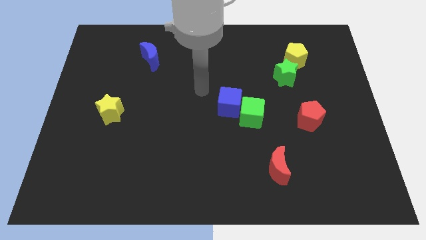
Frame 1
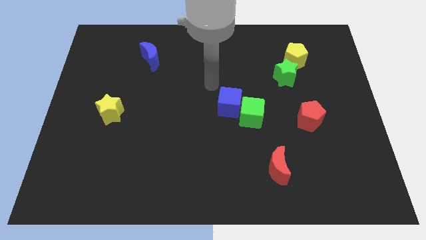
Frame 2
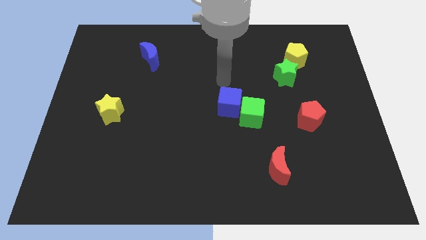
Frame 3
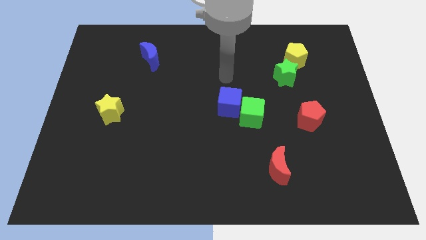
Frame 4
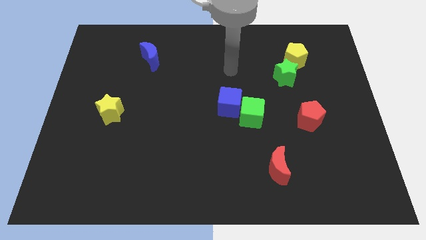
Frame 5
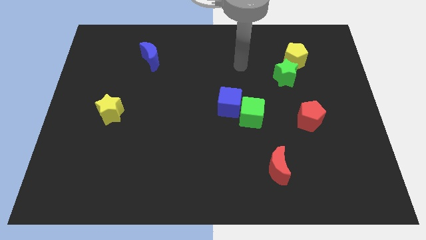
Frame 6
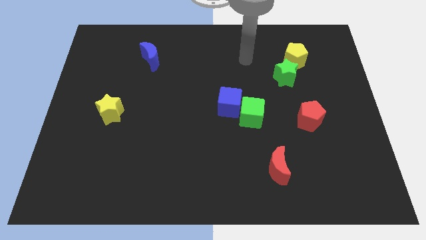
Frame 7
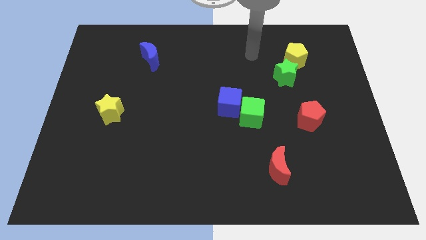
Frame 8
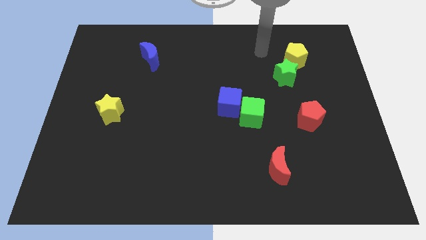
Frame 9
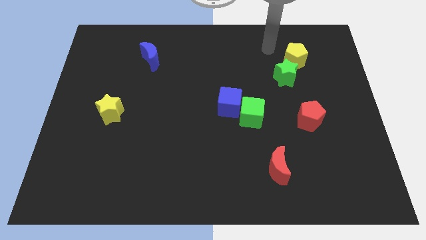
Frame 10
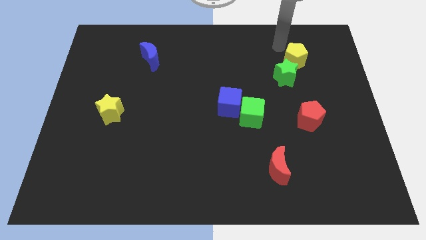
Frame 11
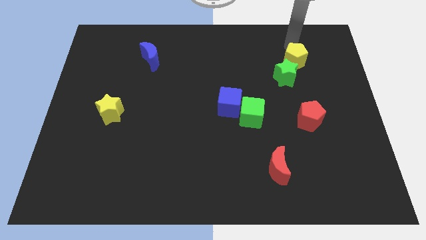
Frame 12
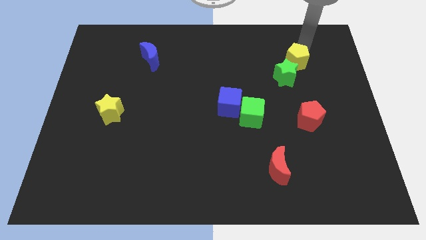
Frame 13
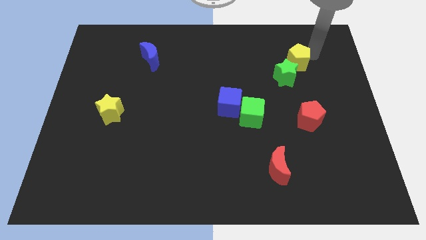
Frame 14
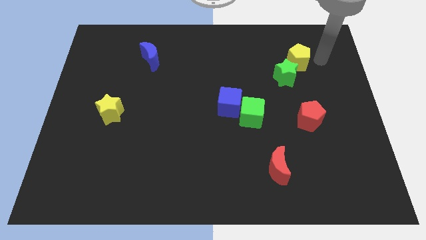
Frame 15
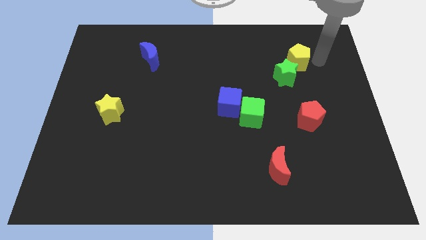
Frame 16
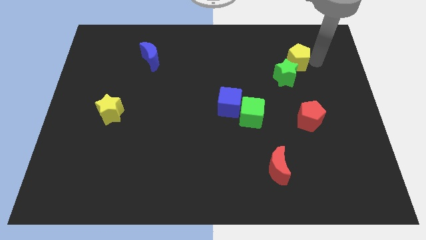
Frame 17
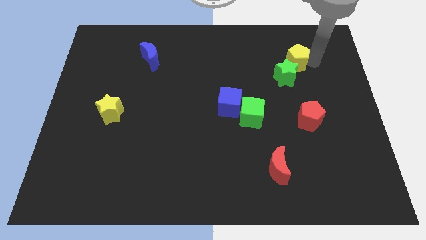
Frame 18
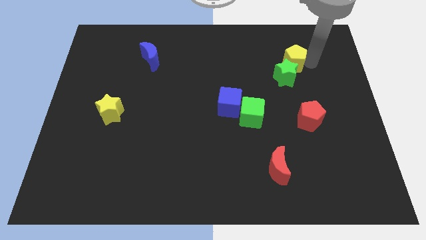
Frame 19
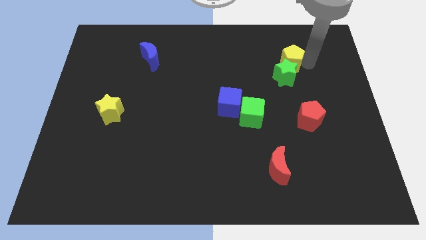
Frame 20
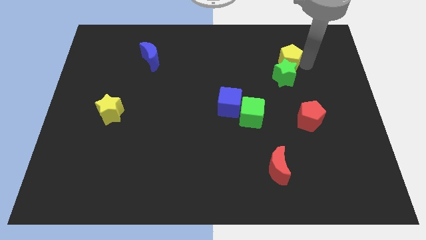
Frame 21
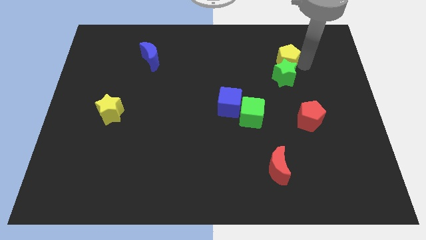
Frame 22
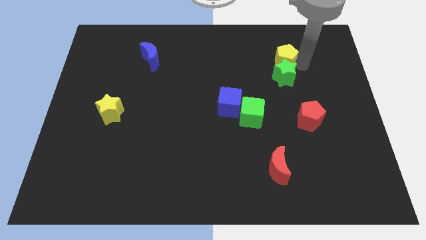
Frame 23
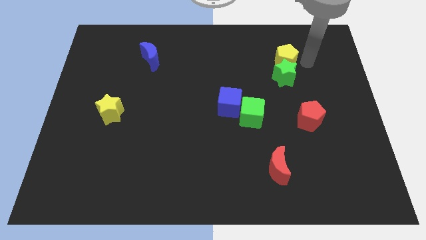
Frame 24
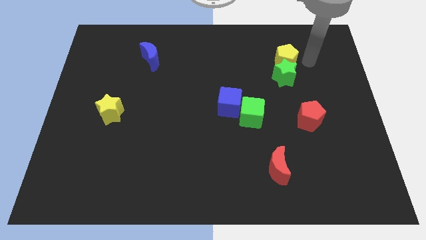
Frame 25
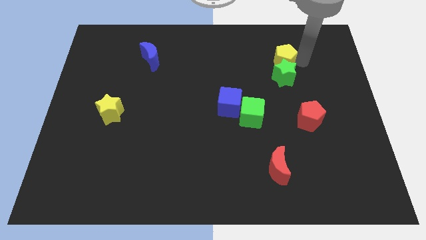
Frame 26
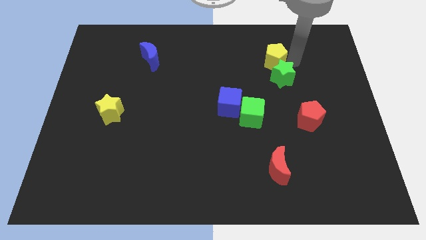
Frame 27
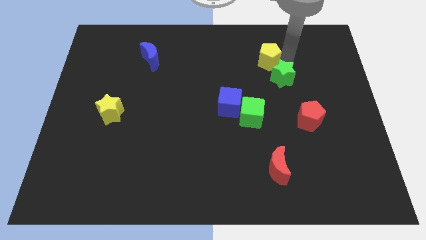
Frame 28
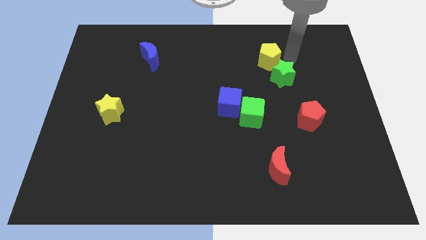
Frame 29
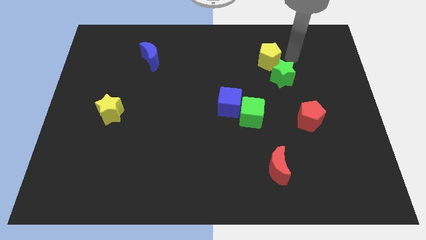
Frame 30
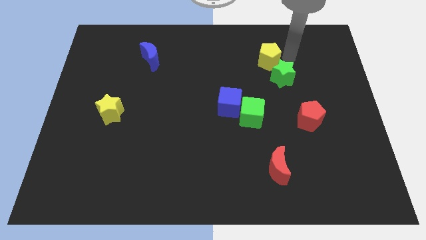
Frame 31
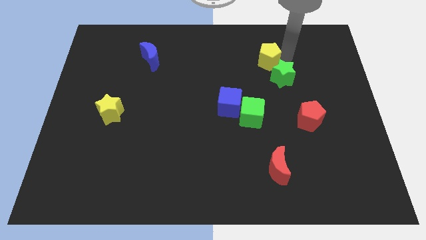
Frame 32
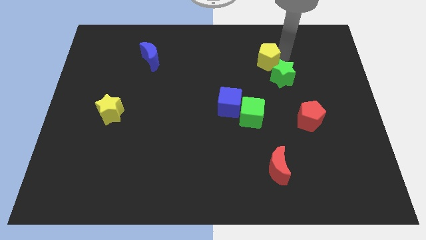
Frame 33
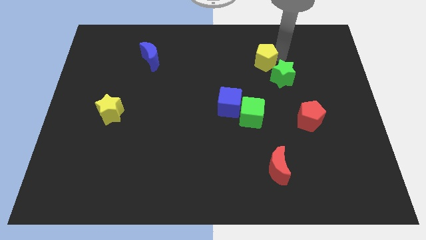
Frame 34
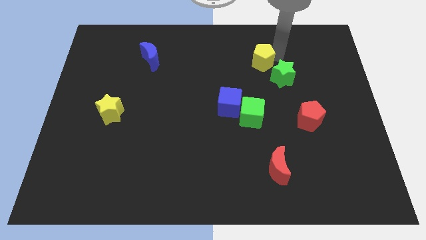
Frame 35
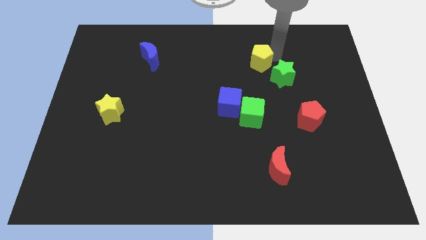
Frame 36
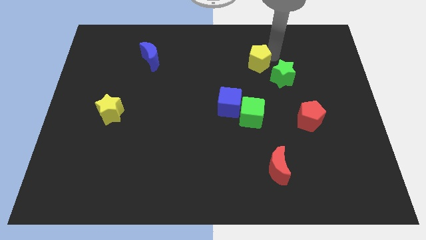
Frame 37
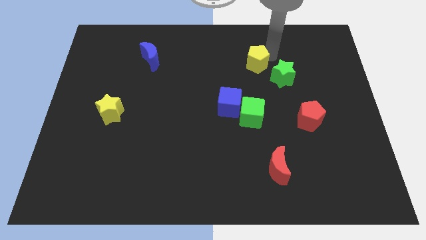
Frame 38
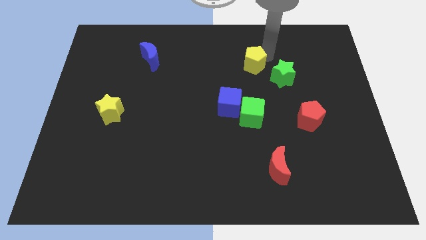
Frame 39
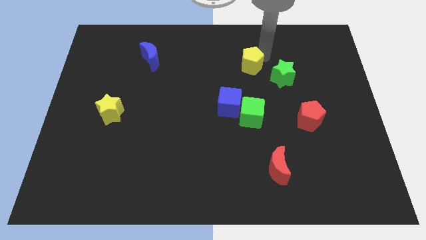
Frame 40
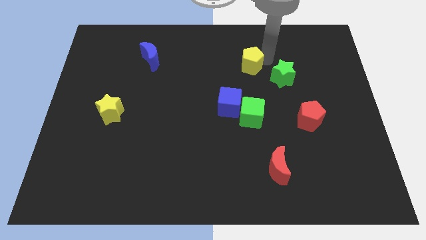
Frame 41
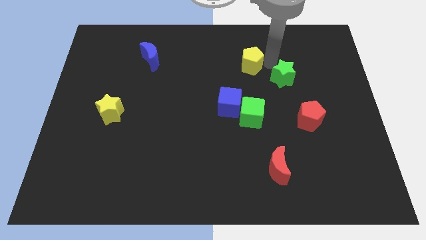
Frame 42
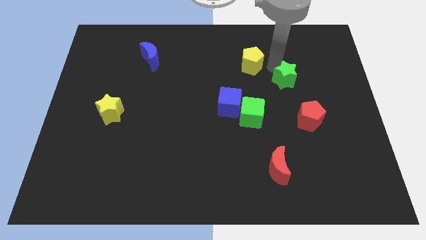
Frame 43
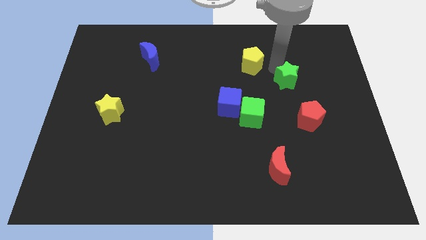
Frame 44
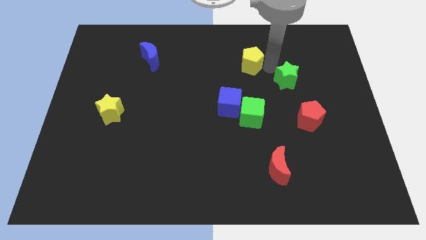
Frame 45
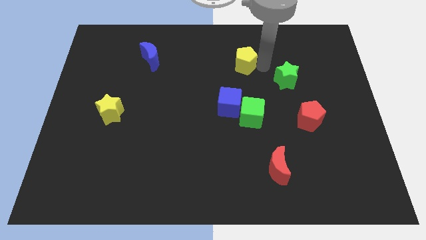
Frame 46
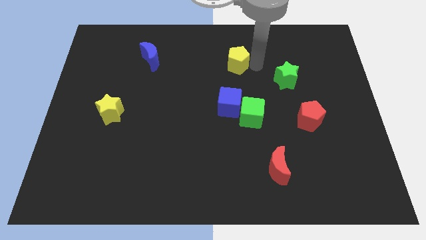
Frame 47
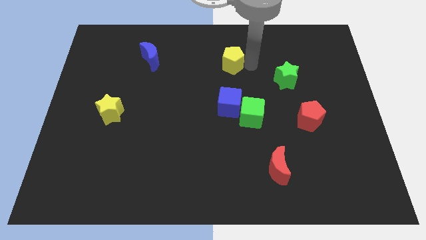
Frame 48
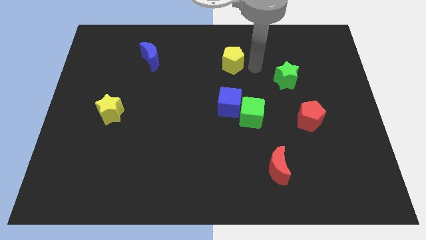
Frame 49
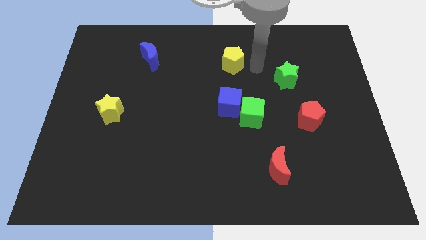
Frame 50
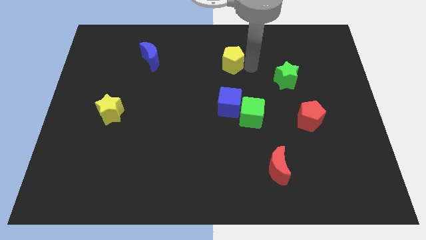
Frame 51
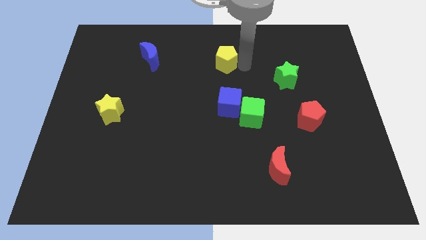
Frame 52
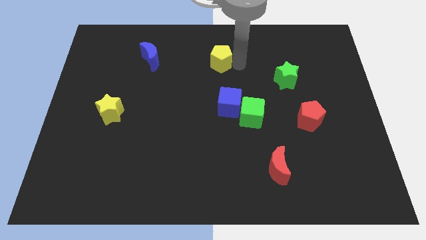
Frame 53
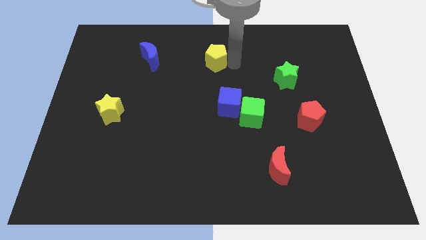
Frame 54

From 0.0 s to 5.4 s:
push the yellow pentagon to the left

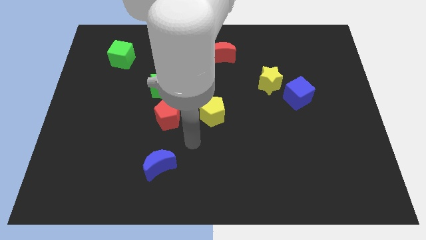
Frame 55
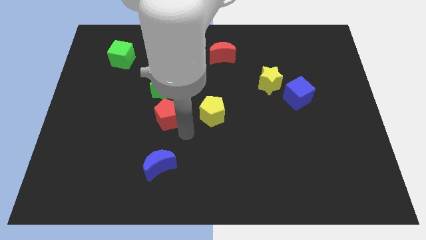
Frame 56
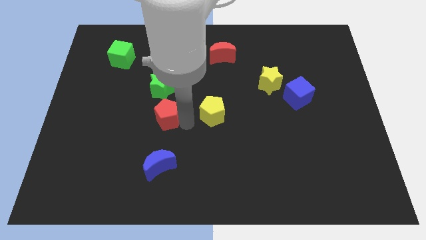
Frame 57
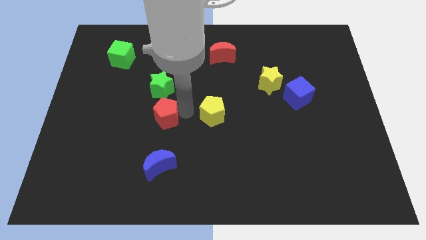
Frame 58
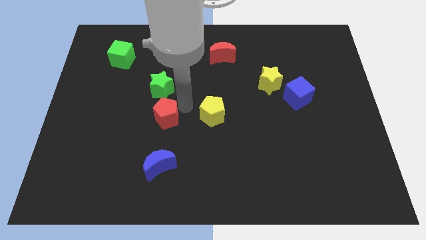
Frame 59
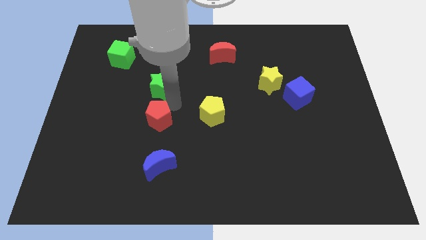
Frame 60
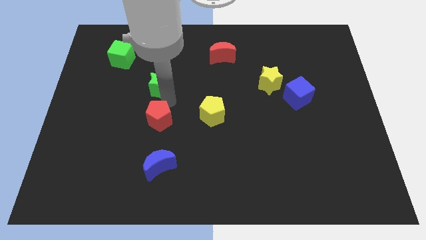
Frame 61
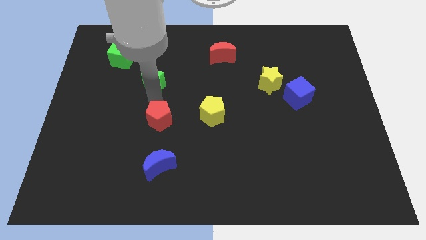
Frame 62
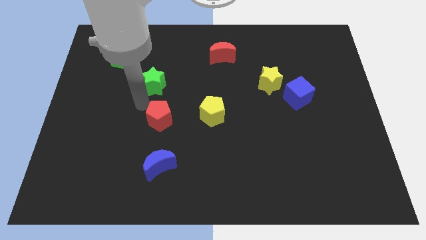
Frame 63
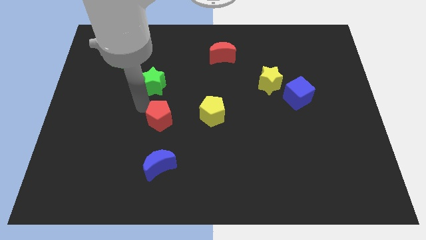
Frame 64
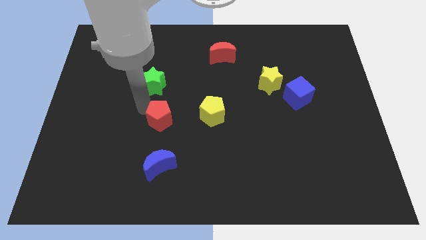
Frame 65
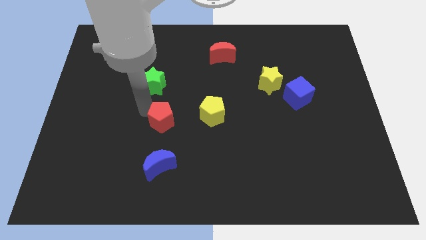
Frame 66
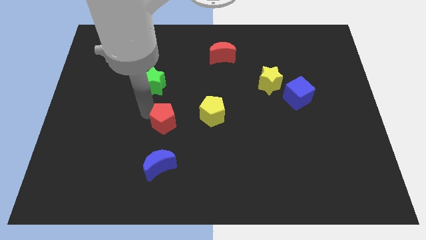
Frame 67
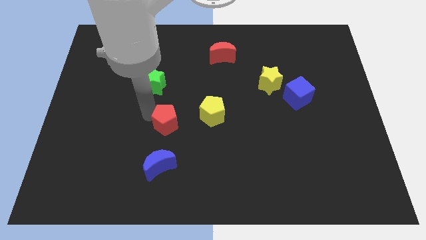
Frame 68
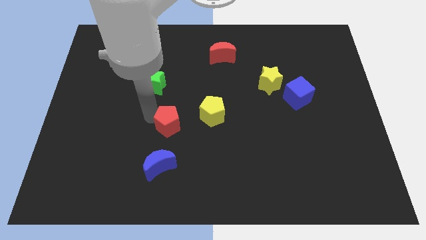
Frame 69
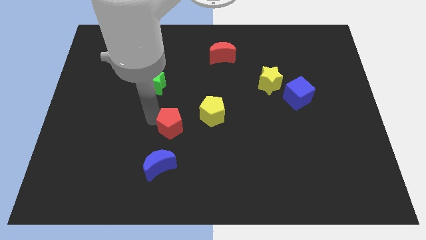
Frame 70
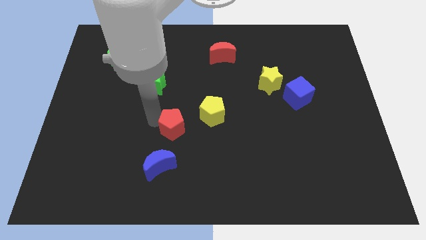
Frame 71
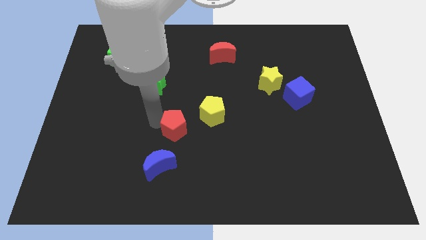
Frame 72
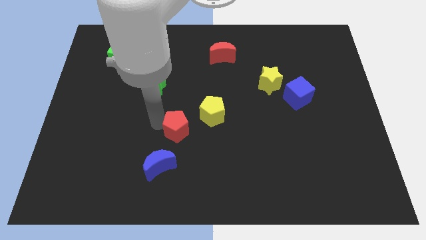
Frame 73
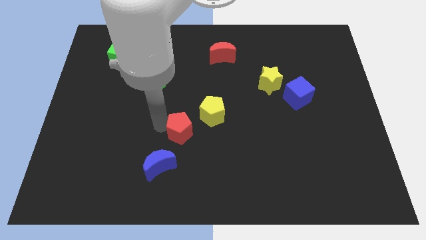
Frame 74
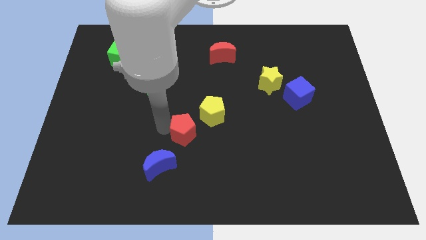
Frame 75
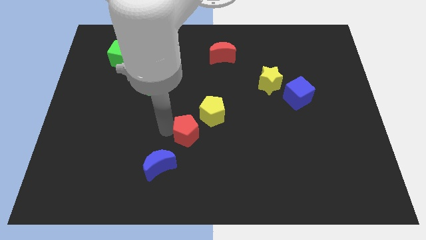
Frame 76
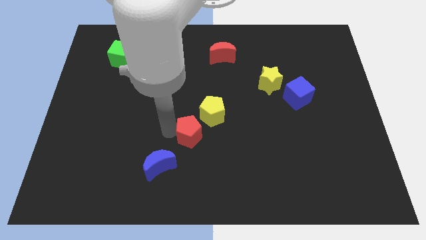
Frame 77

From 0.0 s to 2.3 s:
move the red pentagon a bit down and to the right

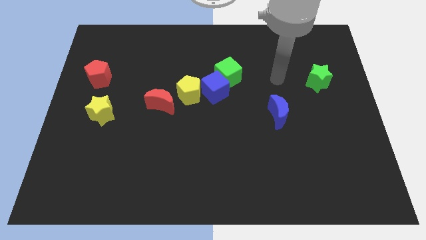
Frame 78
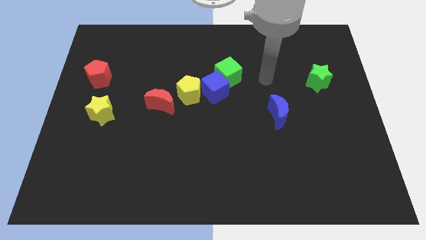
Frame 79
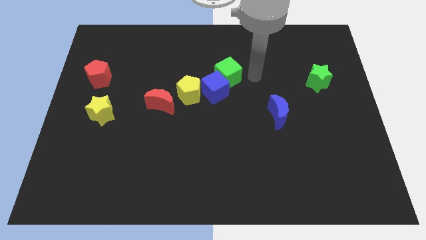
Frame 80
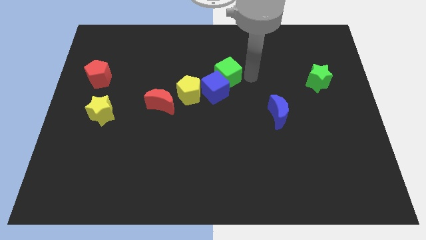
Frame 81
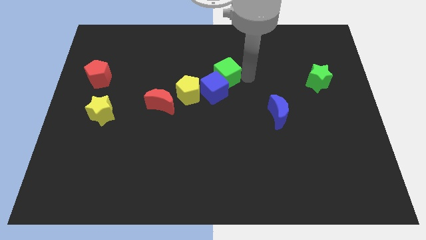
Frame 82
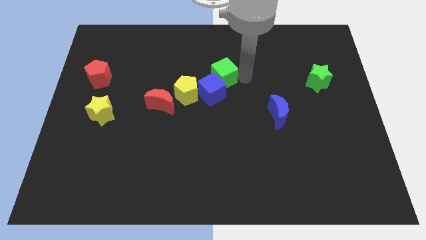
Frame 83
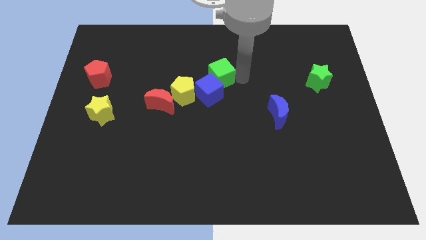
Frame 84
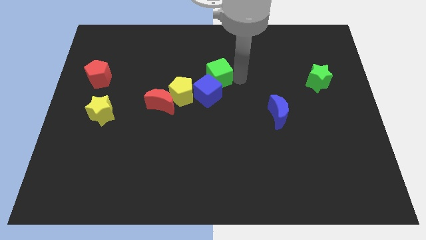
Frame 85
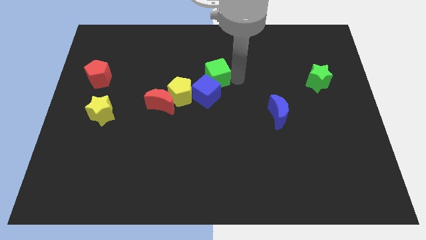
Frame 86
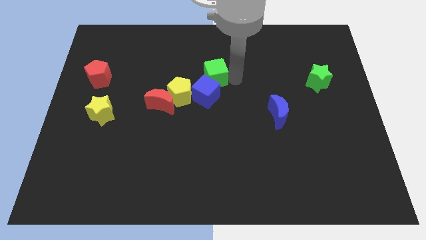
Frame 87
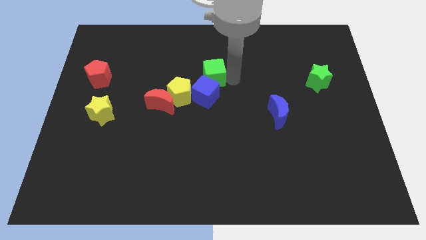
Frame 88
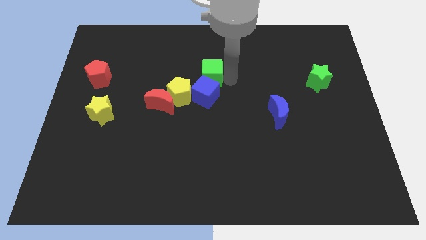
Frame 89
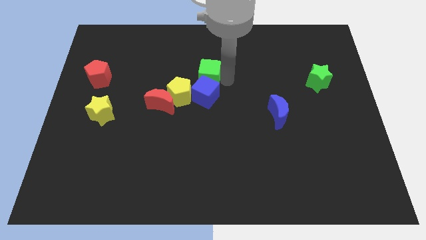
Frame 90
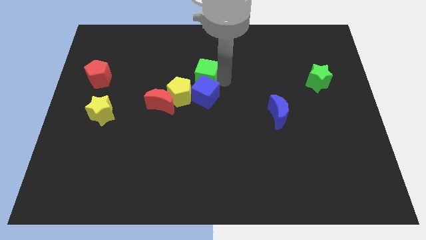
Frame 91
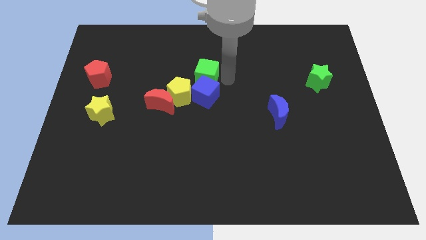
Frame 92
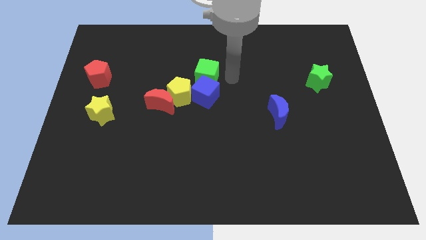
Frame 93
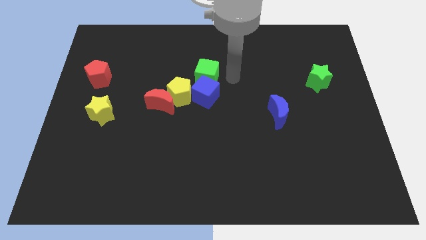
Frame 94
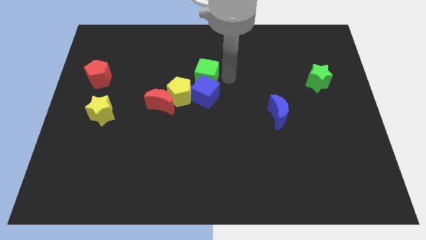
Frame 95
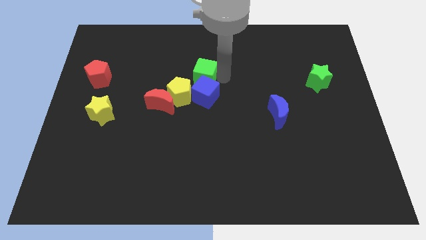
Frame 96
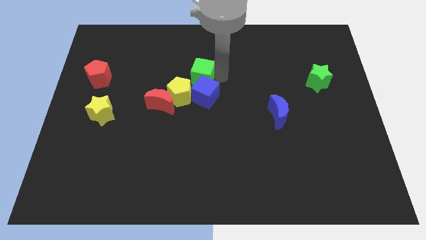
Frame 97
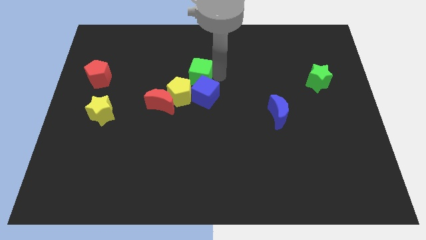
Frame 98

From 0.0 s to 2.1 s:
slightly push the green cube left
